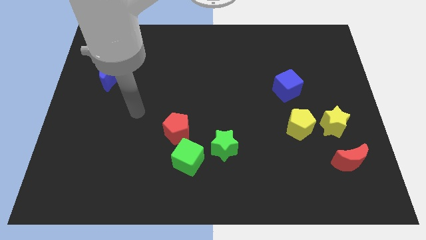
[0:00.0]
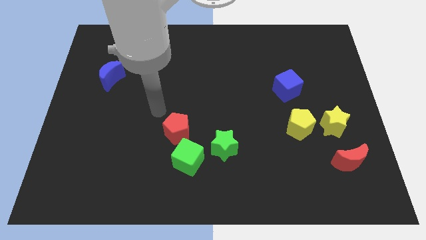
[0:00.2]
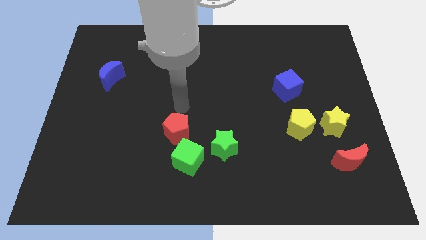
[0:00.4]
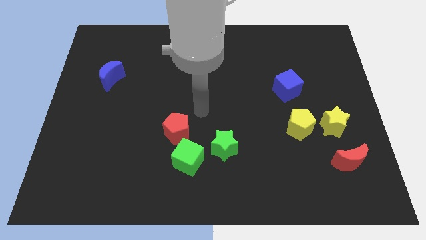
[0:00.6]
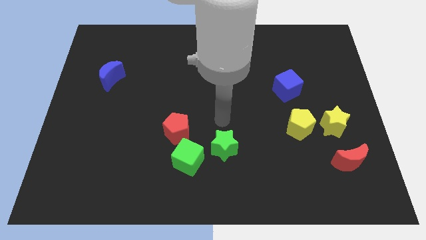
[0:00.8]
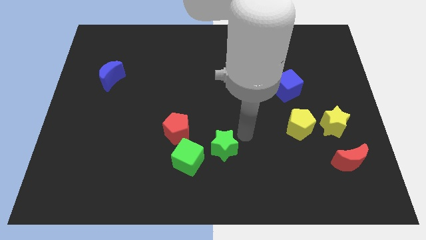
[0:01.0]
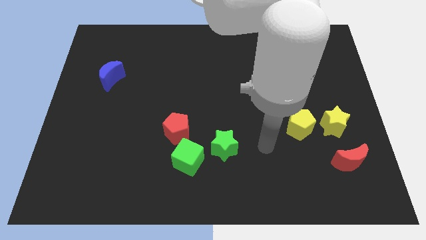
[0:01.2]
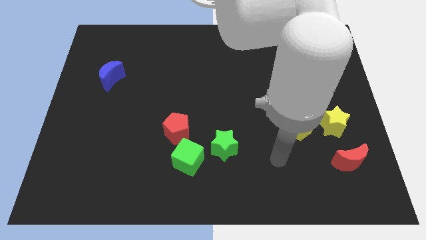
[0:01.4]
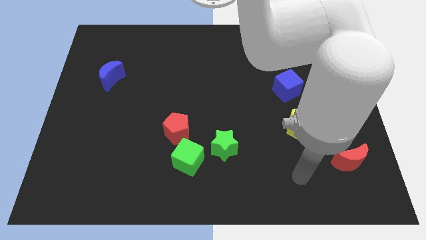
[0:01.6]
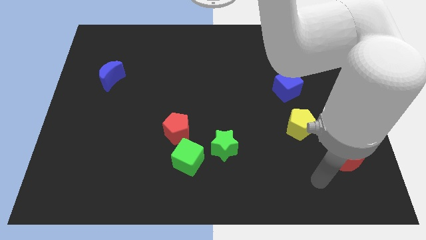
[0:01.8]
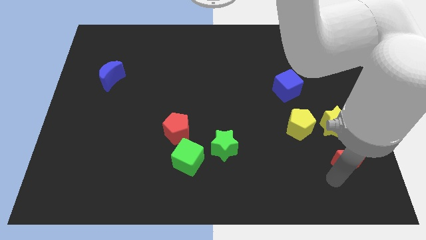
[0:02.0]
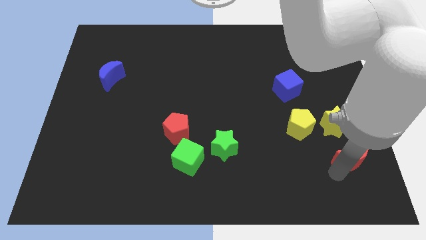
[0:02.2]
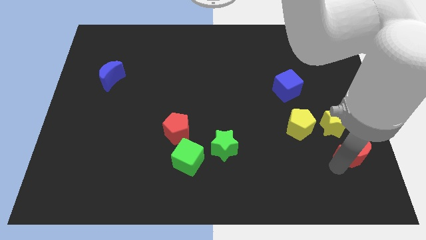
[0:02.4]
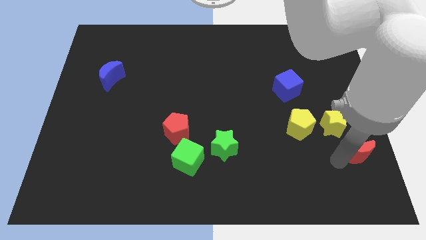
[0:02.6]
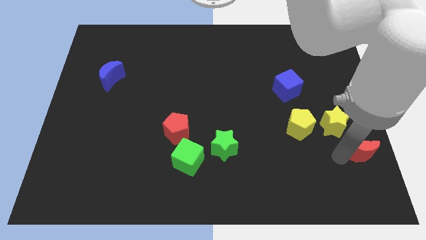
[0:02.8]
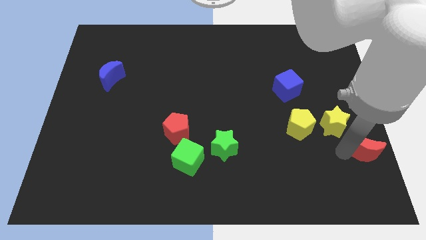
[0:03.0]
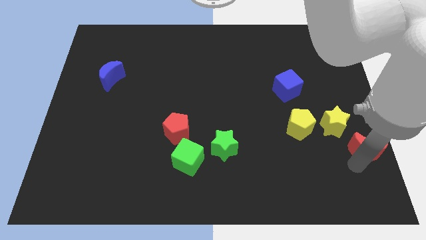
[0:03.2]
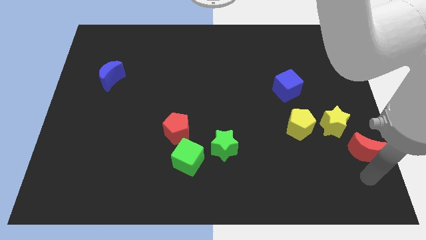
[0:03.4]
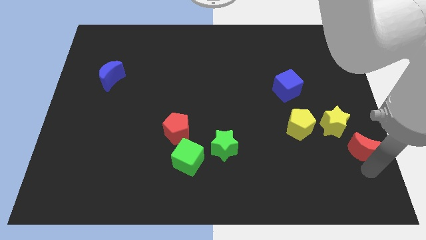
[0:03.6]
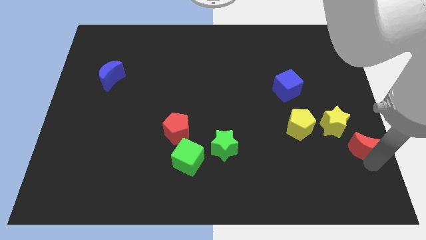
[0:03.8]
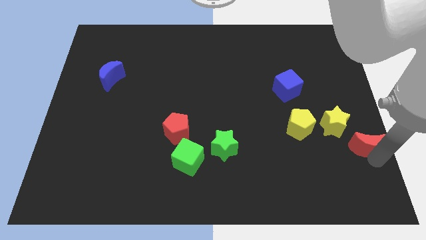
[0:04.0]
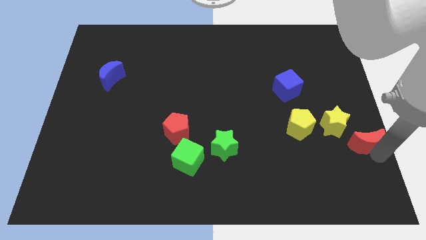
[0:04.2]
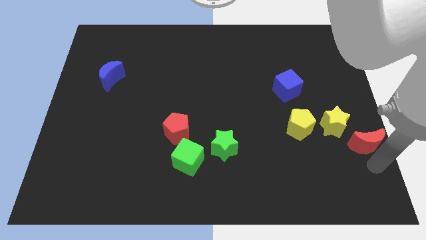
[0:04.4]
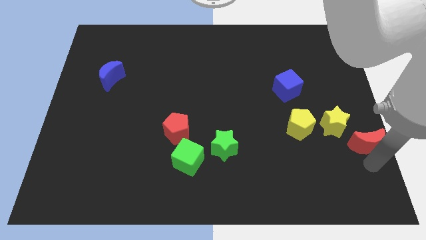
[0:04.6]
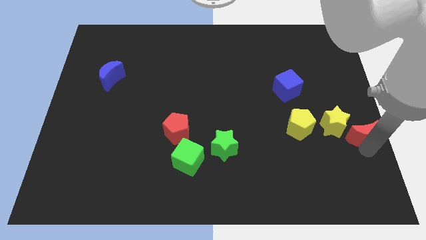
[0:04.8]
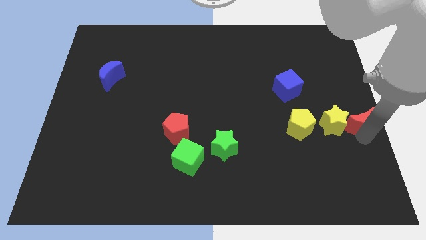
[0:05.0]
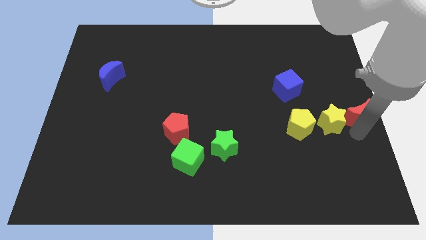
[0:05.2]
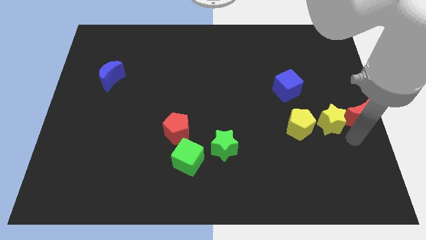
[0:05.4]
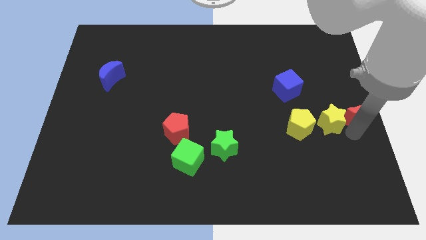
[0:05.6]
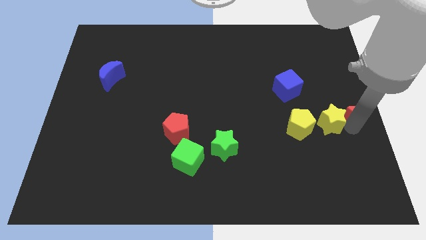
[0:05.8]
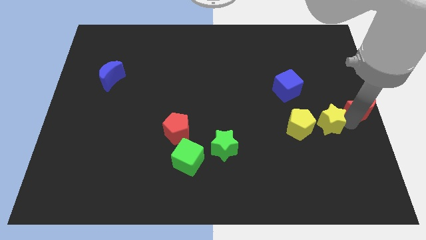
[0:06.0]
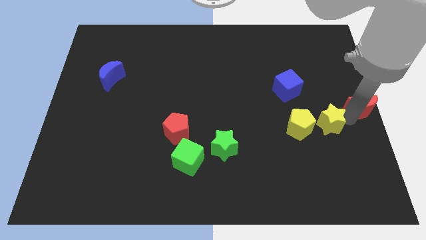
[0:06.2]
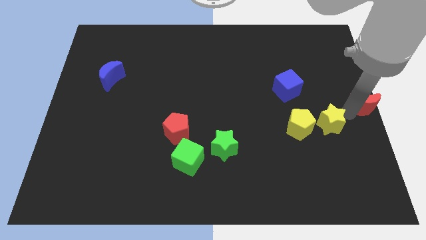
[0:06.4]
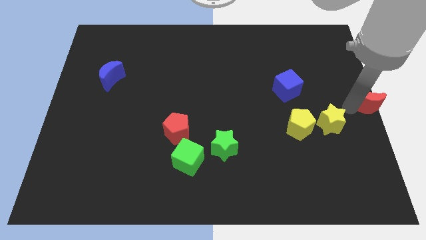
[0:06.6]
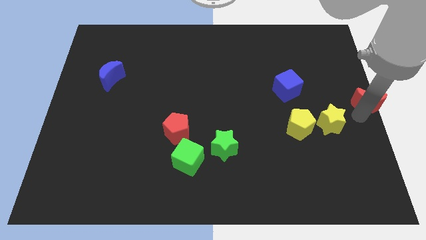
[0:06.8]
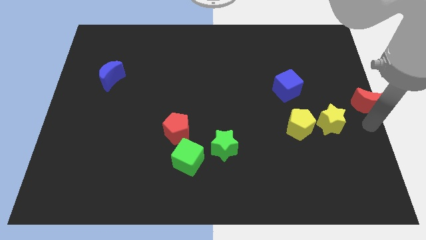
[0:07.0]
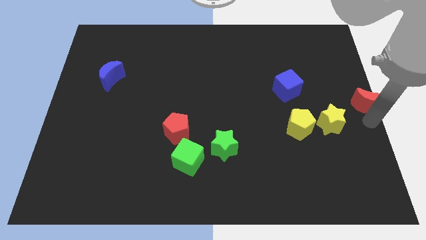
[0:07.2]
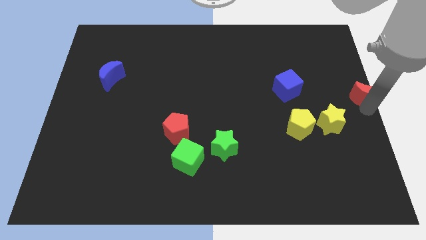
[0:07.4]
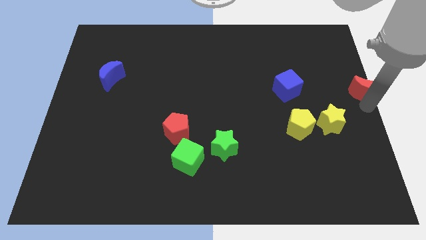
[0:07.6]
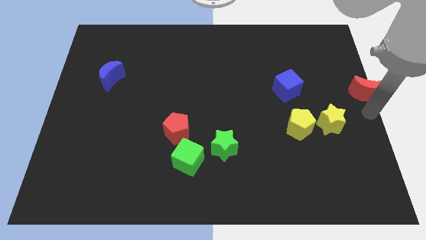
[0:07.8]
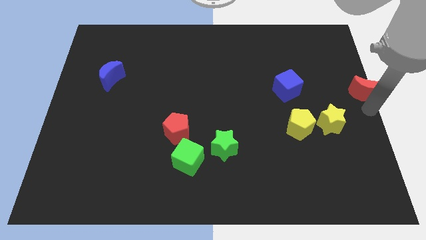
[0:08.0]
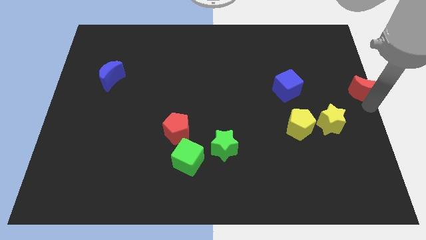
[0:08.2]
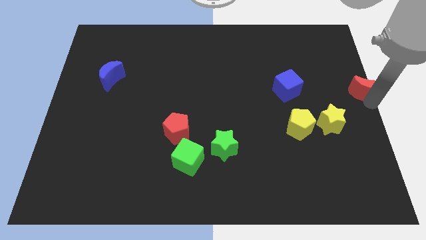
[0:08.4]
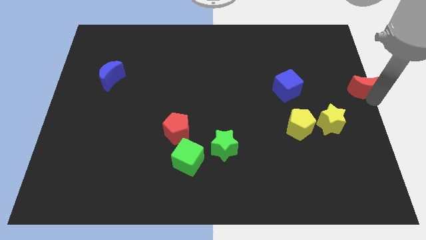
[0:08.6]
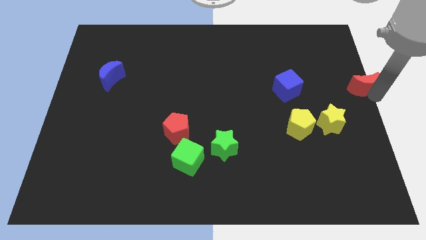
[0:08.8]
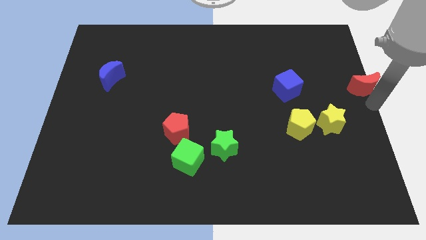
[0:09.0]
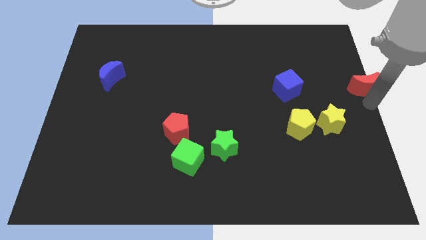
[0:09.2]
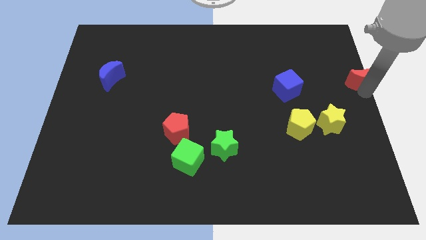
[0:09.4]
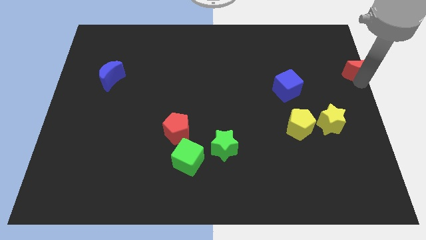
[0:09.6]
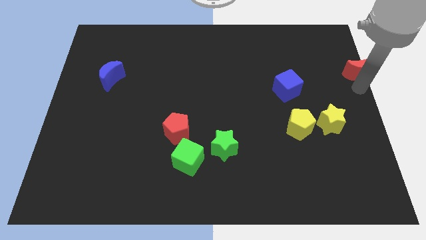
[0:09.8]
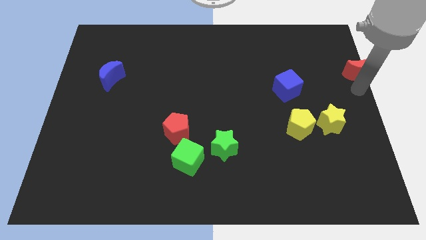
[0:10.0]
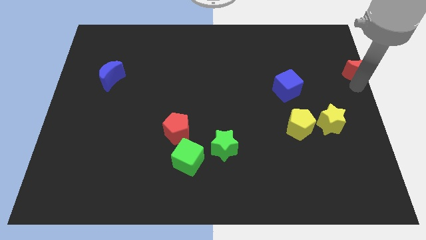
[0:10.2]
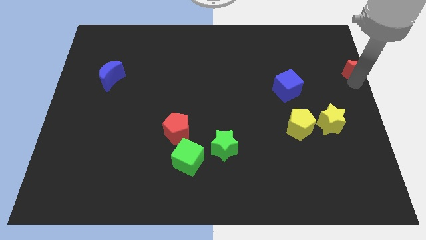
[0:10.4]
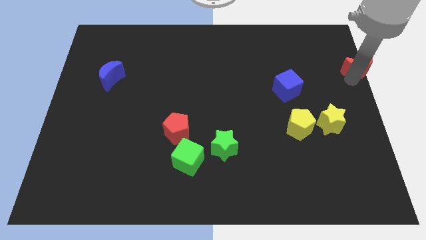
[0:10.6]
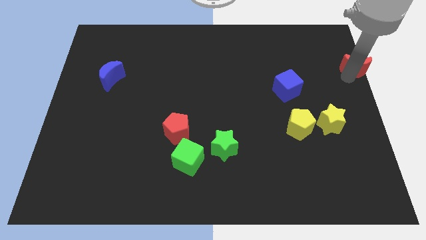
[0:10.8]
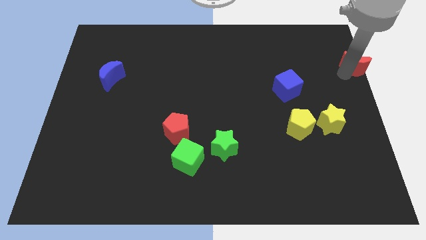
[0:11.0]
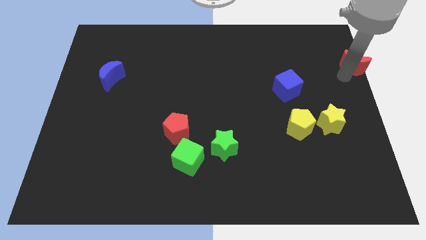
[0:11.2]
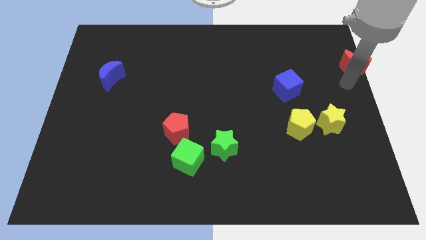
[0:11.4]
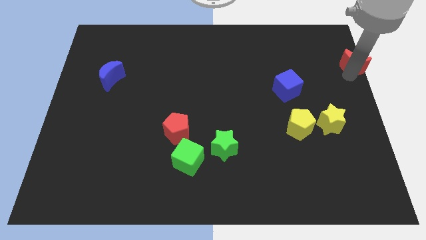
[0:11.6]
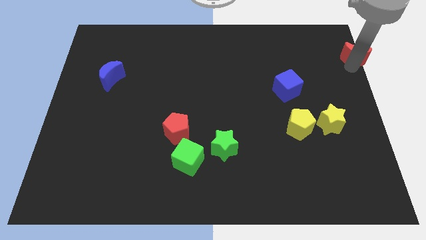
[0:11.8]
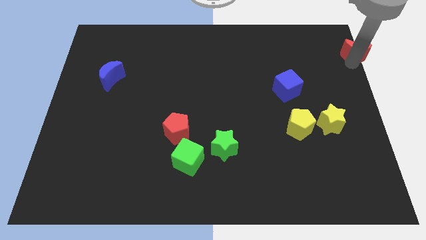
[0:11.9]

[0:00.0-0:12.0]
slide the red moon to the top right

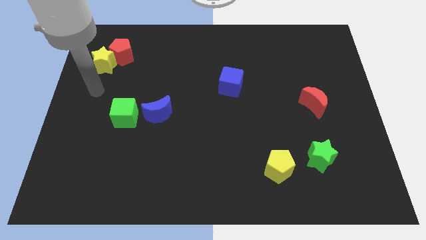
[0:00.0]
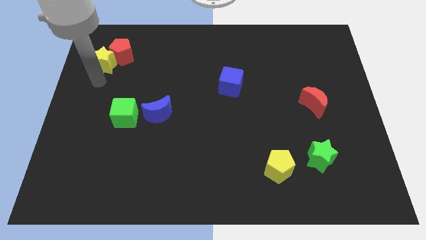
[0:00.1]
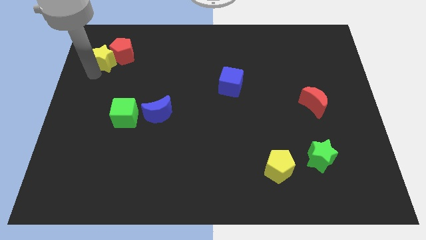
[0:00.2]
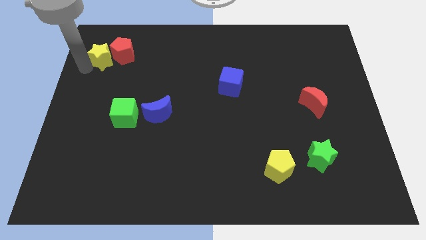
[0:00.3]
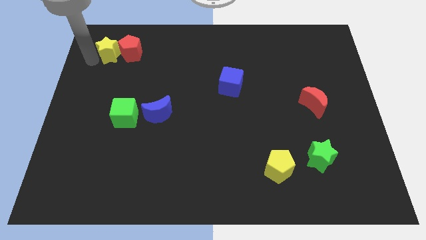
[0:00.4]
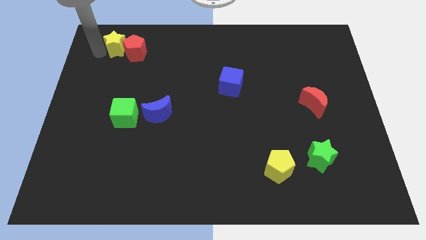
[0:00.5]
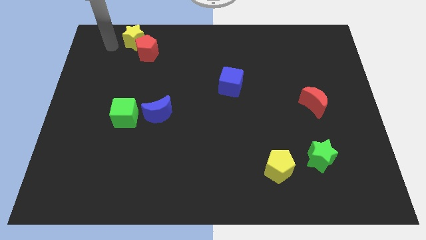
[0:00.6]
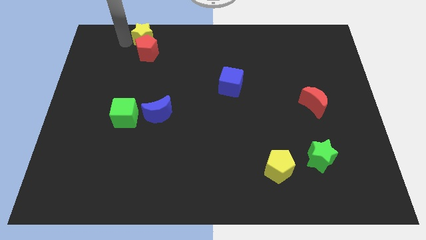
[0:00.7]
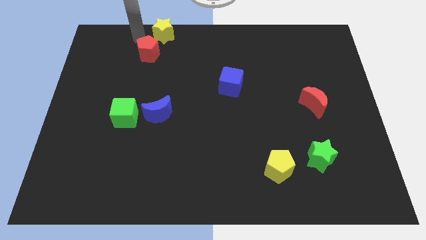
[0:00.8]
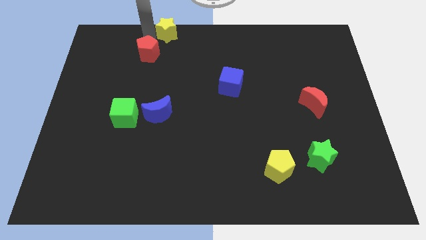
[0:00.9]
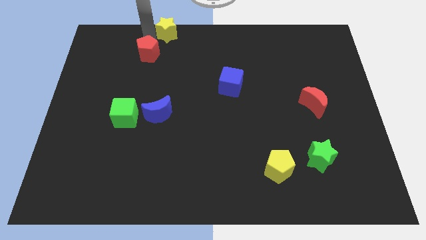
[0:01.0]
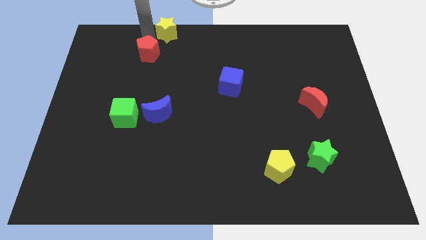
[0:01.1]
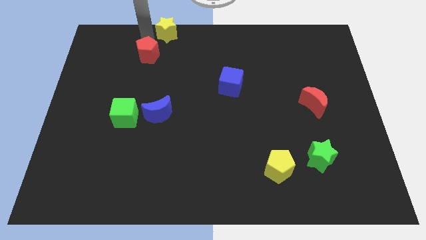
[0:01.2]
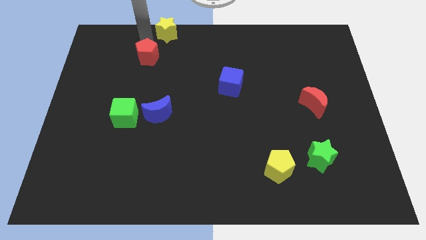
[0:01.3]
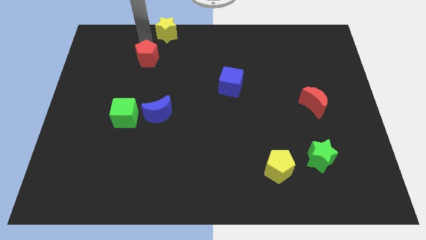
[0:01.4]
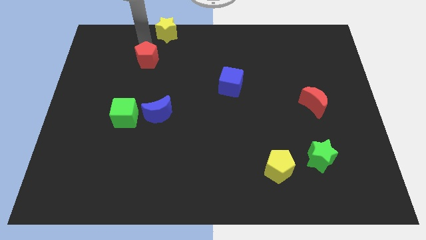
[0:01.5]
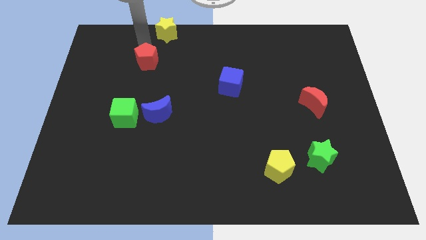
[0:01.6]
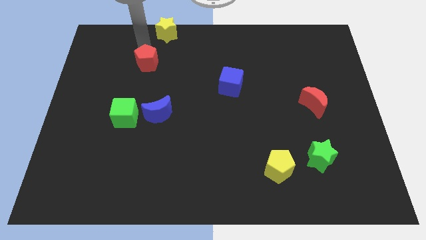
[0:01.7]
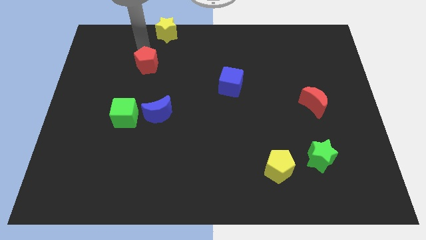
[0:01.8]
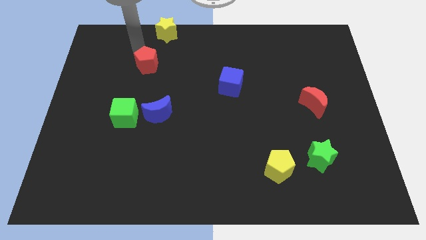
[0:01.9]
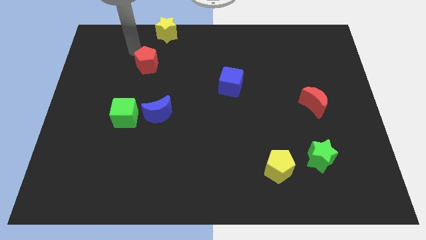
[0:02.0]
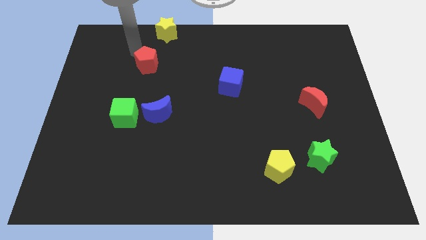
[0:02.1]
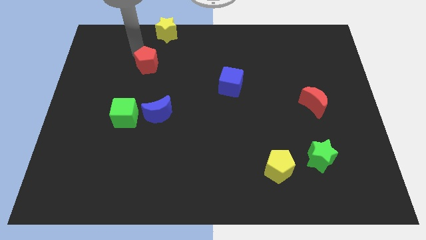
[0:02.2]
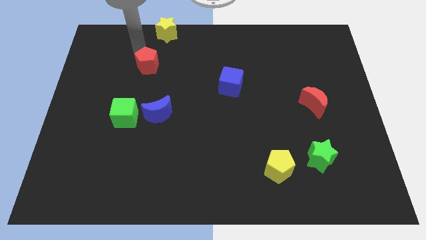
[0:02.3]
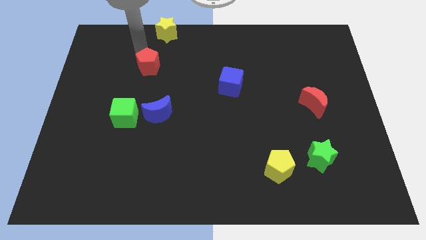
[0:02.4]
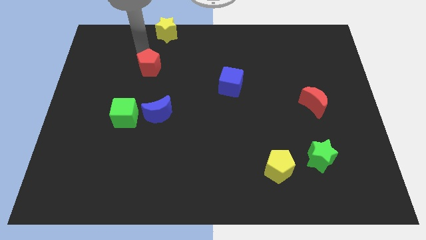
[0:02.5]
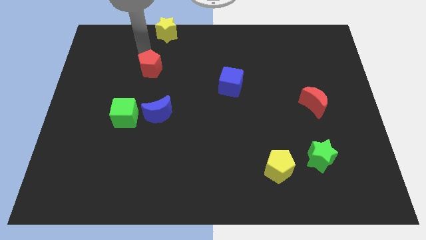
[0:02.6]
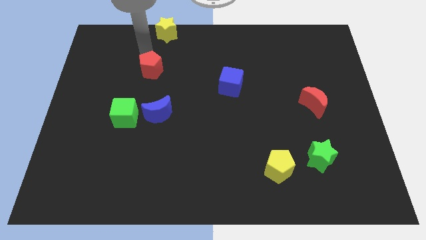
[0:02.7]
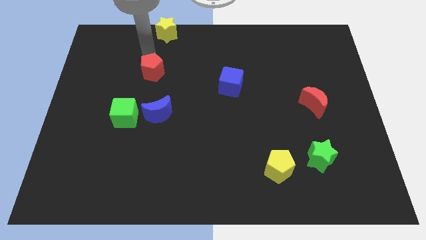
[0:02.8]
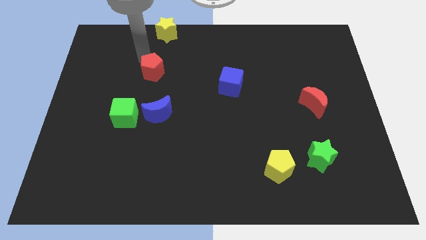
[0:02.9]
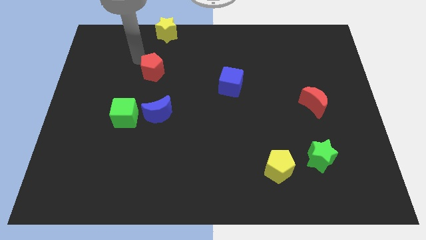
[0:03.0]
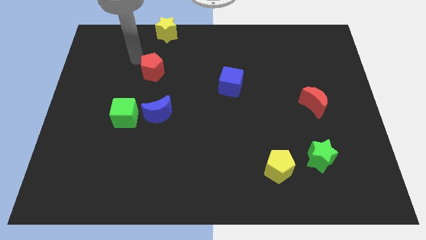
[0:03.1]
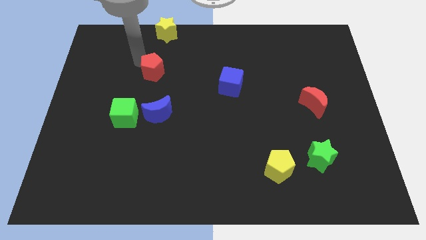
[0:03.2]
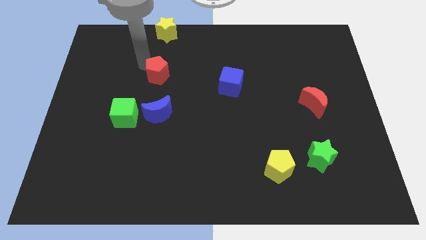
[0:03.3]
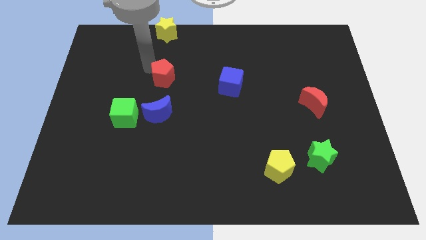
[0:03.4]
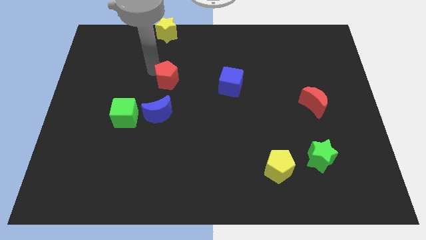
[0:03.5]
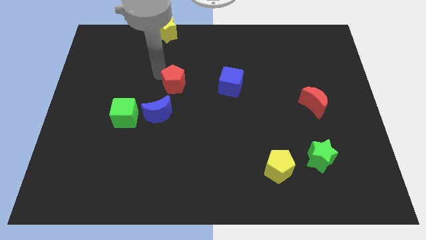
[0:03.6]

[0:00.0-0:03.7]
move the red pentagon to the center of the board
